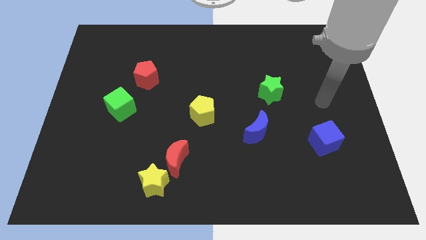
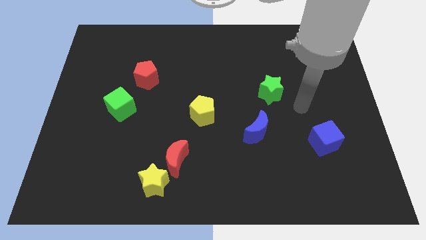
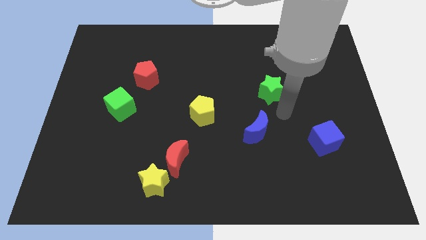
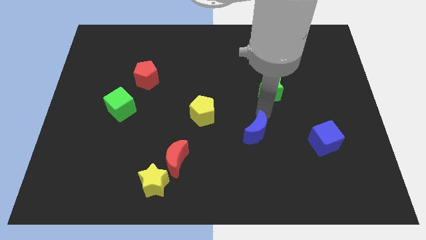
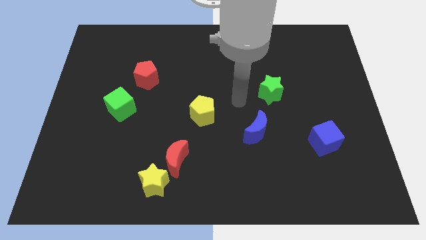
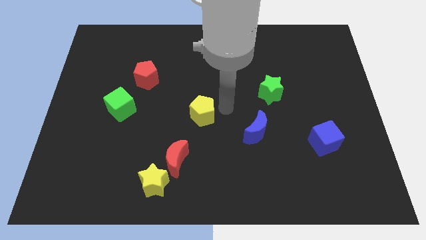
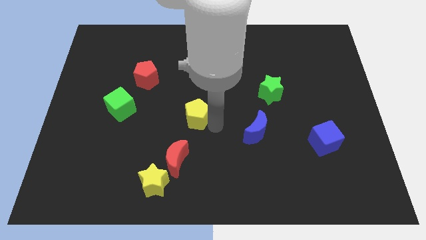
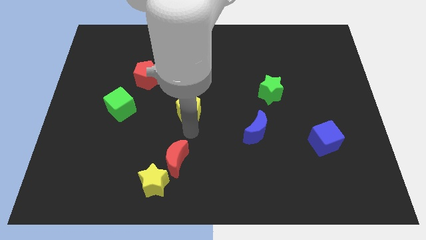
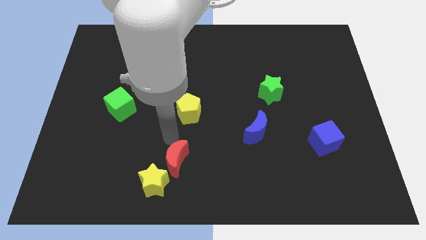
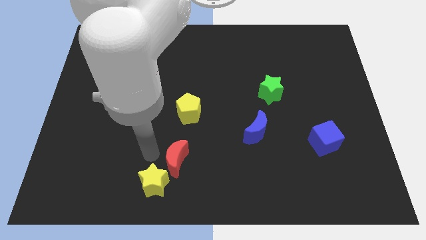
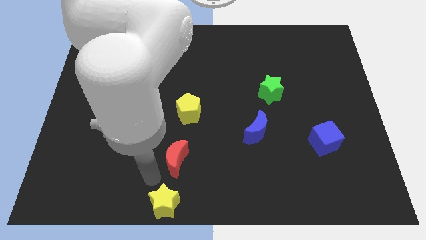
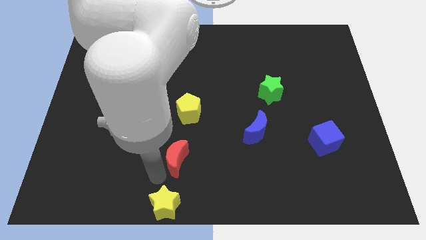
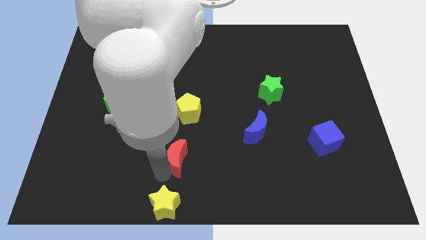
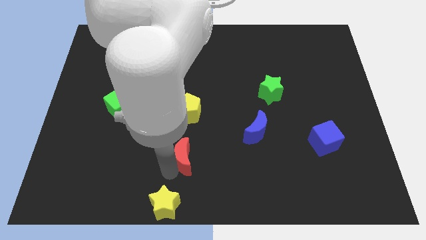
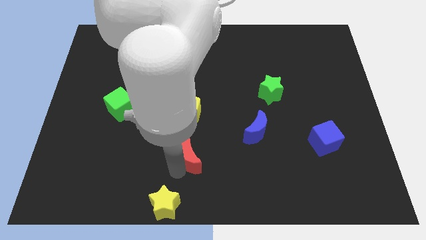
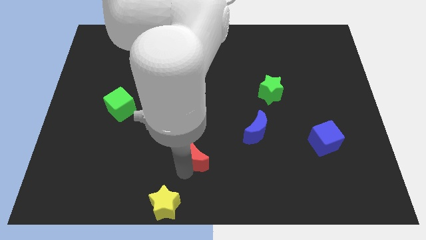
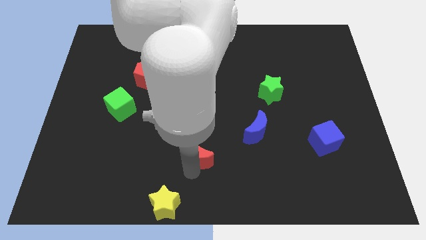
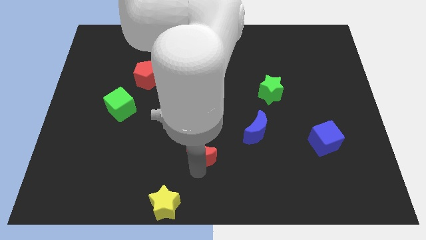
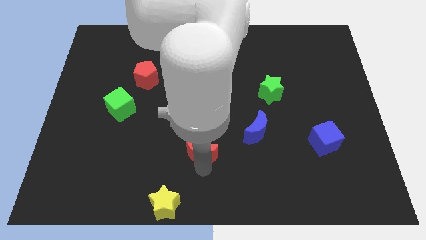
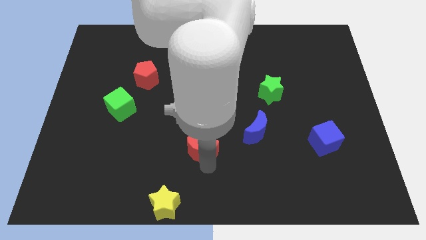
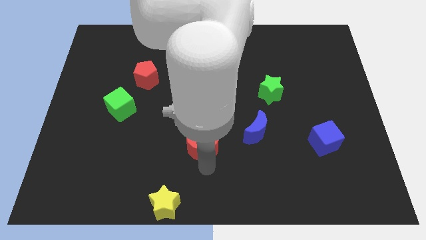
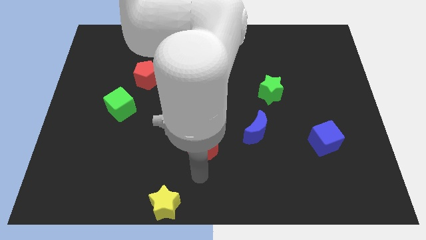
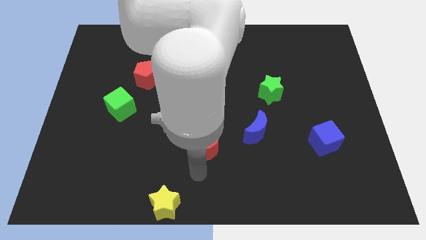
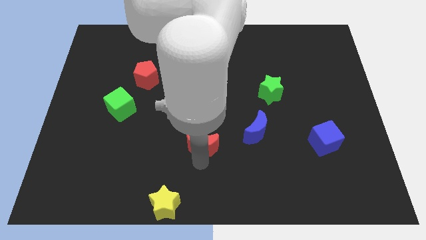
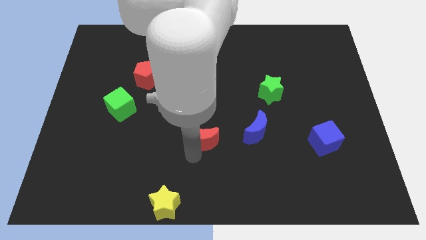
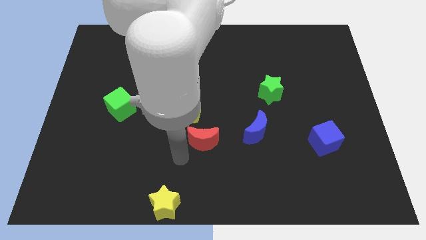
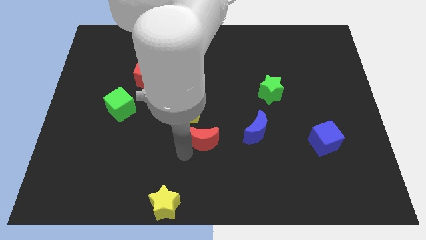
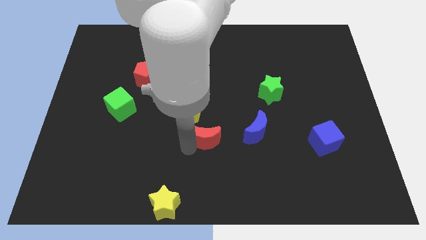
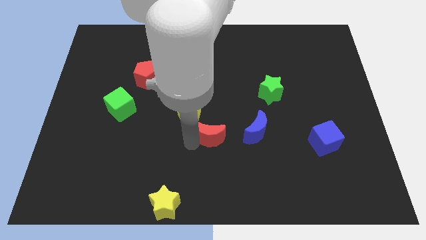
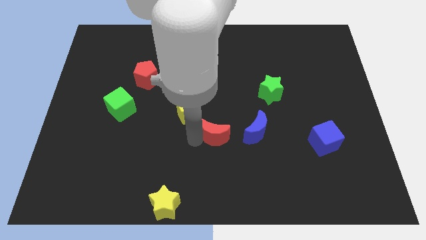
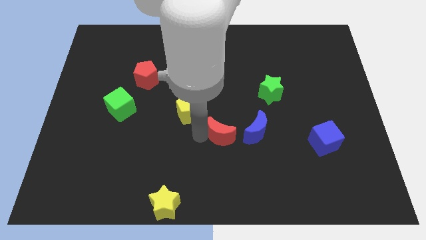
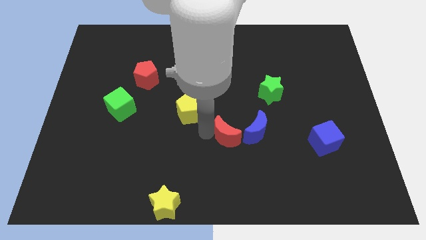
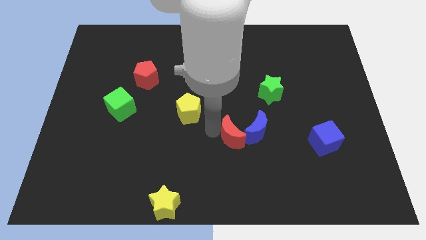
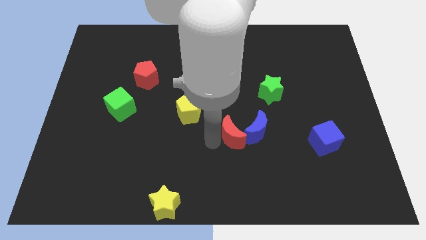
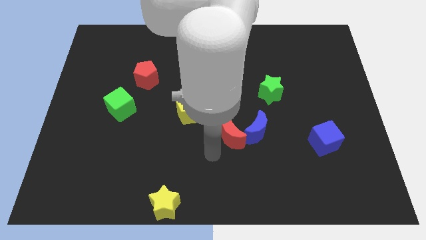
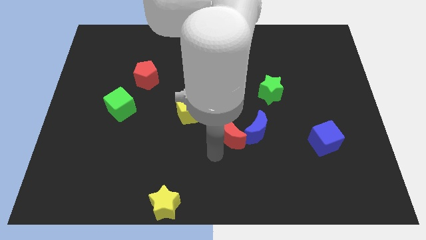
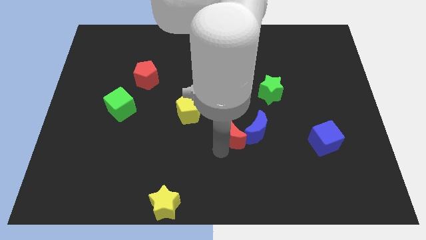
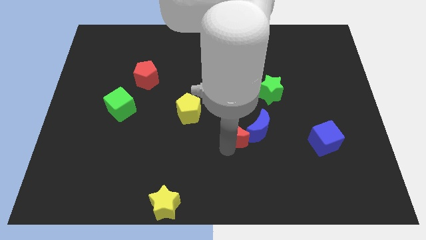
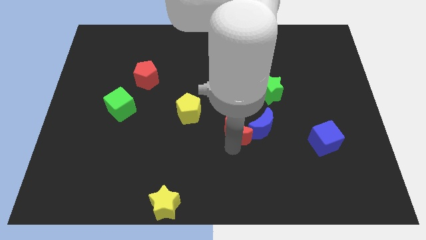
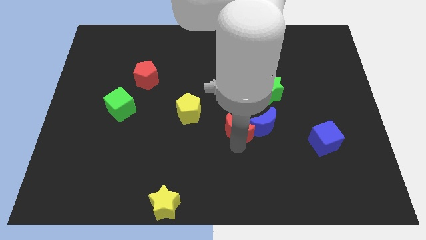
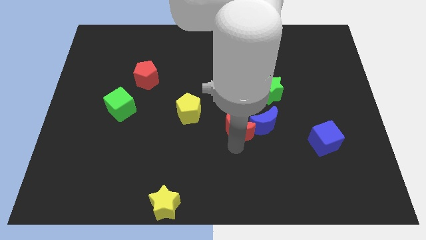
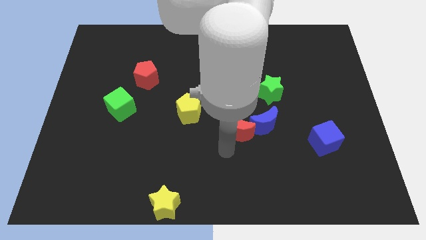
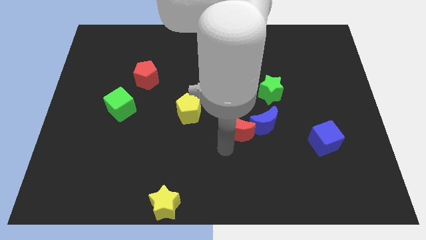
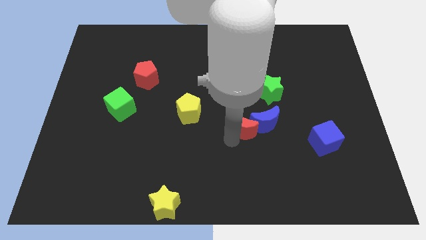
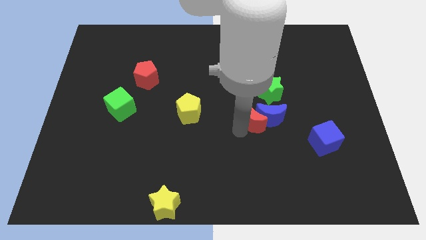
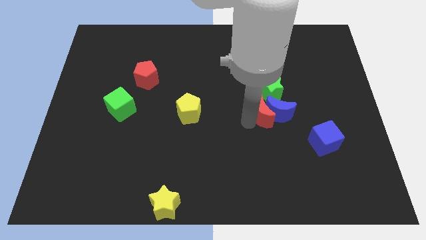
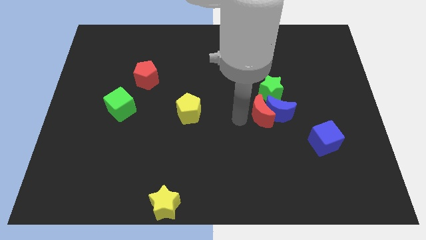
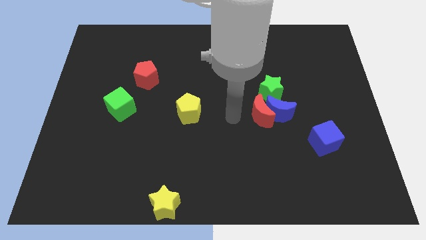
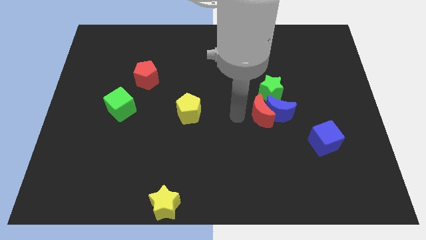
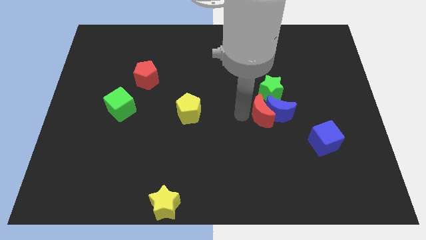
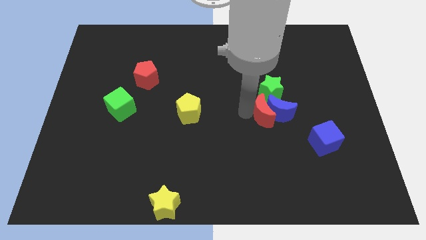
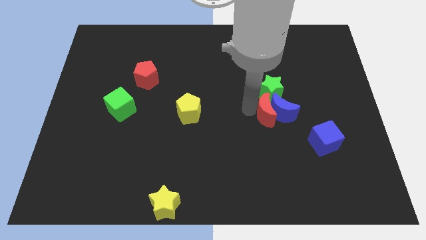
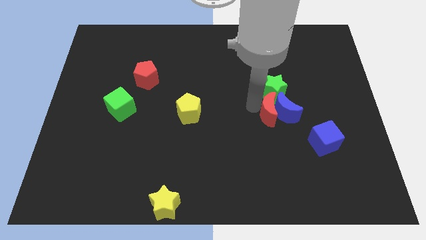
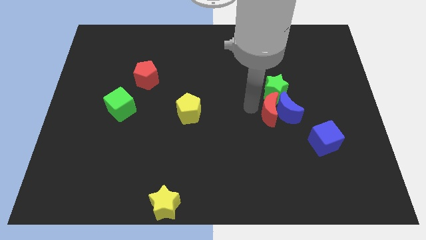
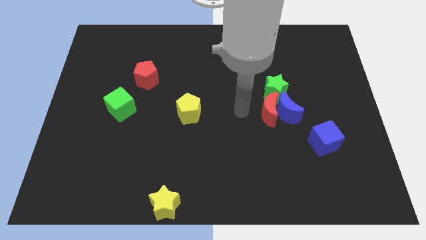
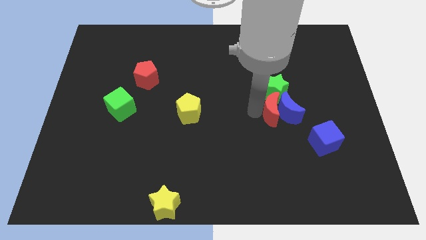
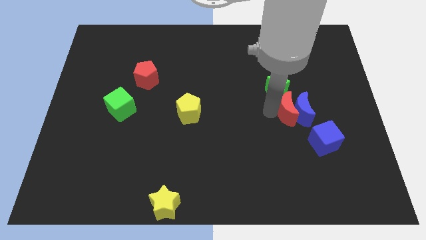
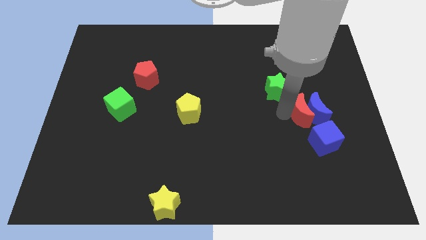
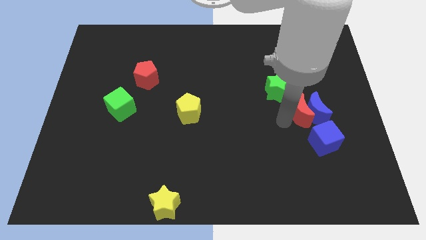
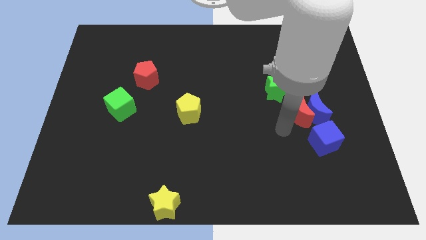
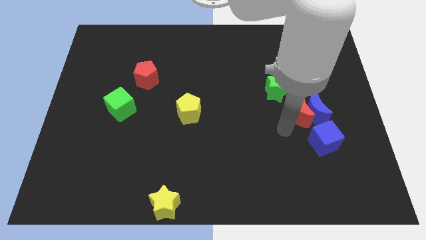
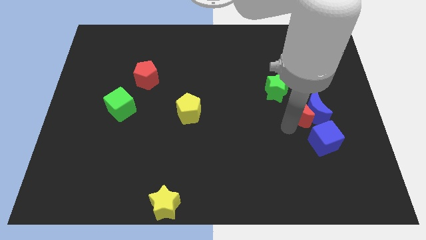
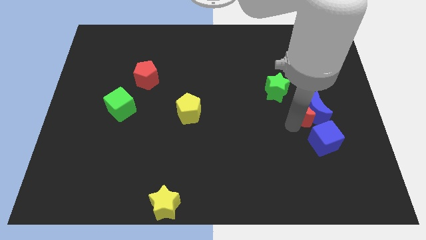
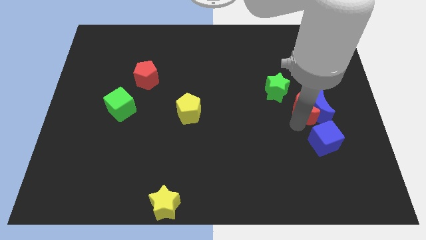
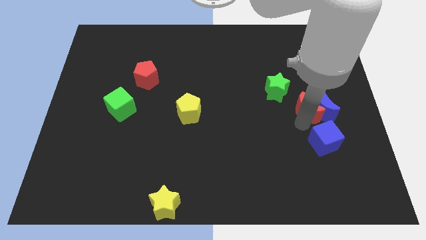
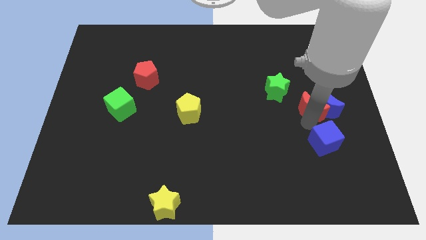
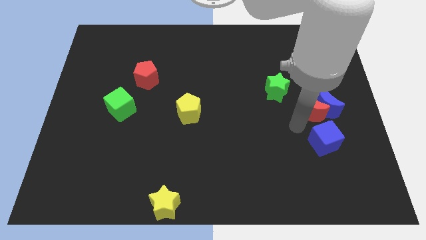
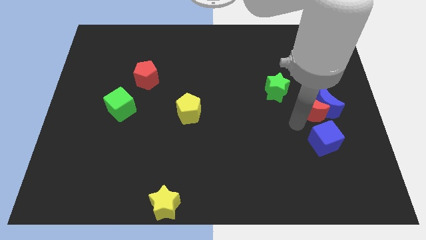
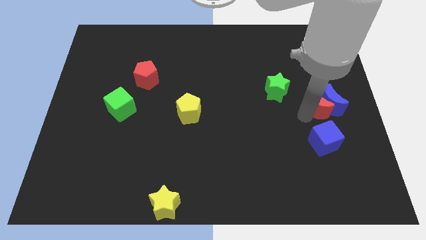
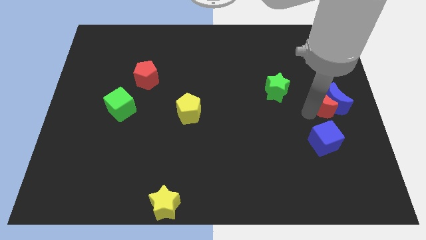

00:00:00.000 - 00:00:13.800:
push the red moon to the right side of the board

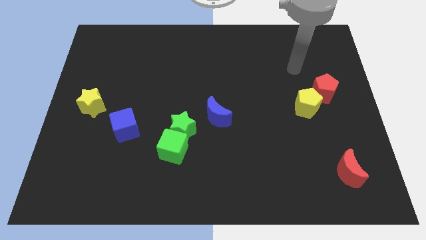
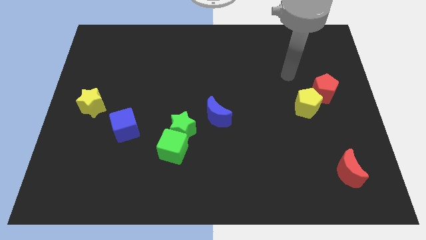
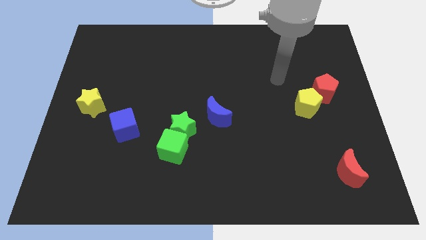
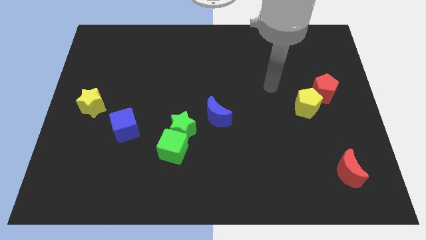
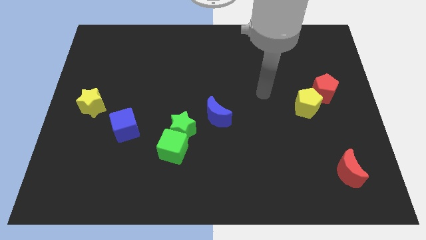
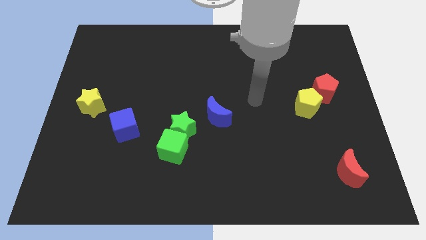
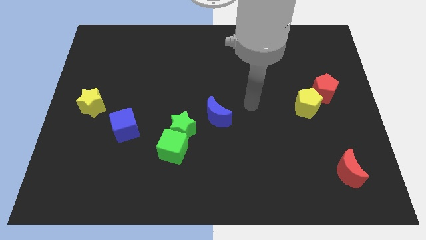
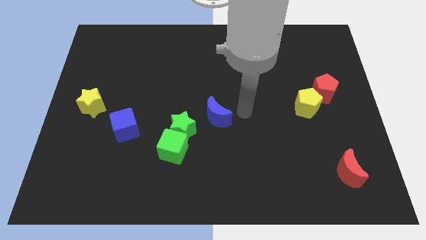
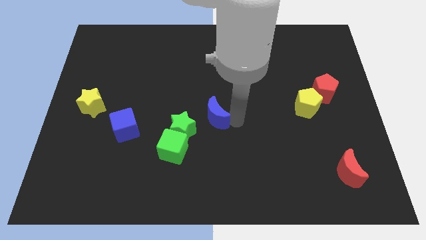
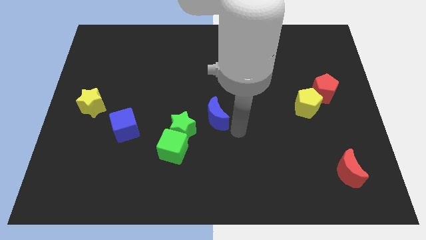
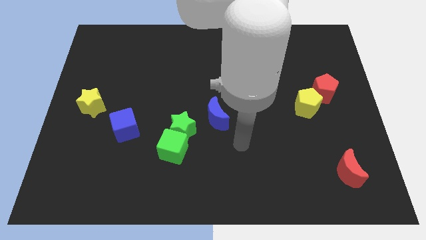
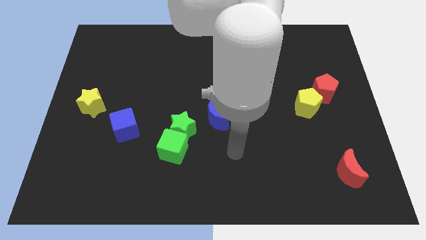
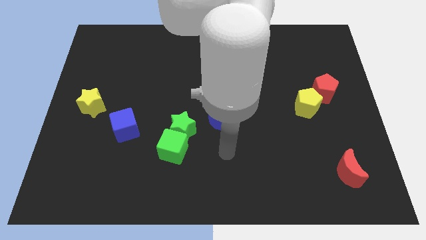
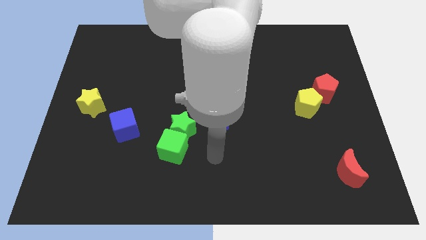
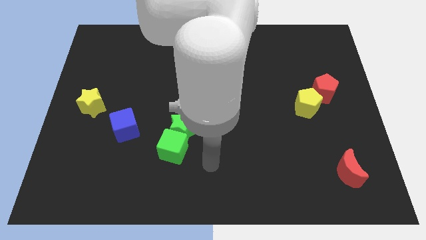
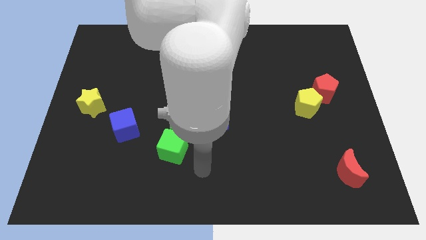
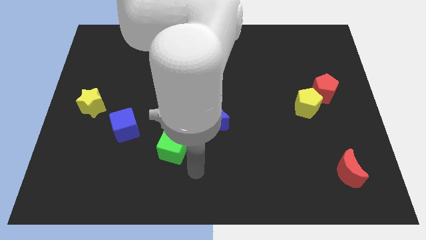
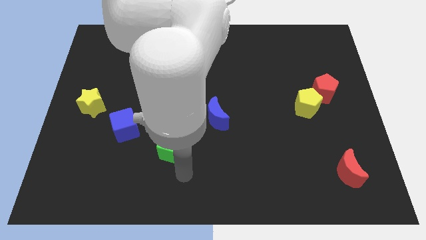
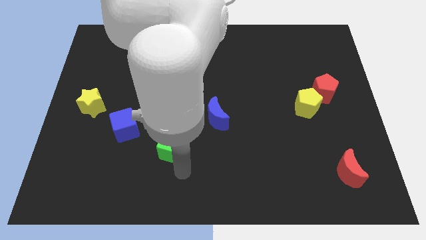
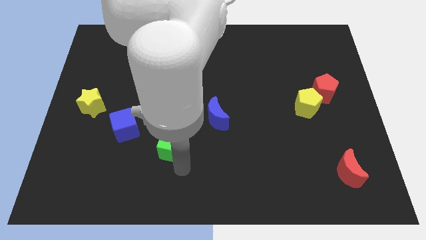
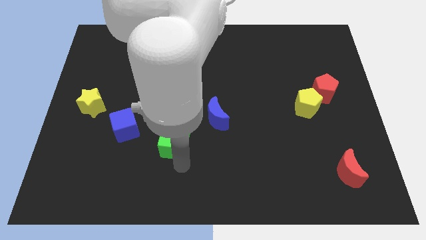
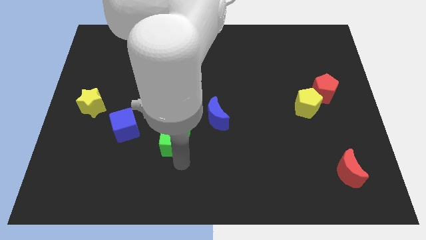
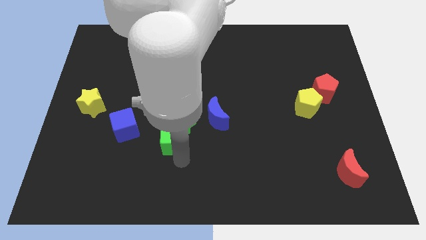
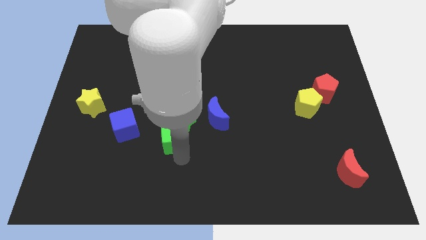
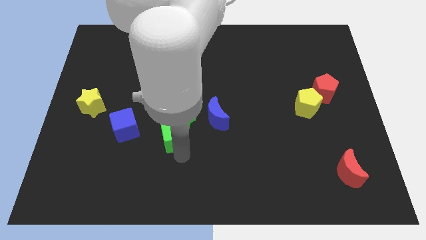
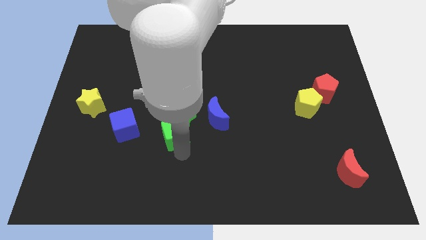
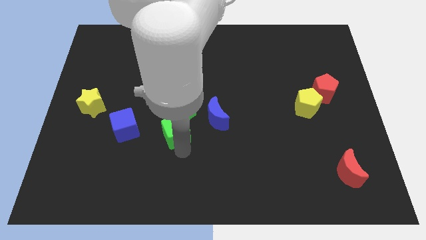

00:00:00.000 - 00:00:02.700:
put the green cube to the middle of the board
